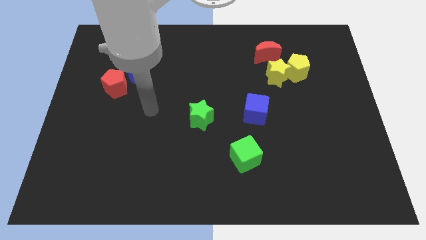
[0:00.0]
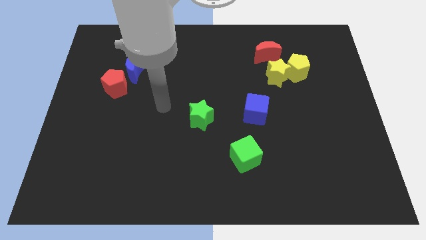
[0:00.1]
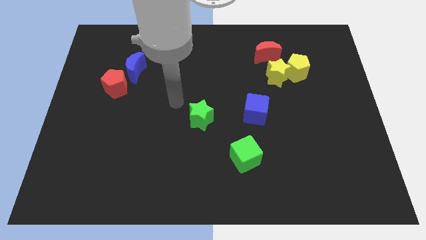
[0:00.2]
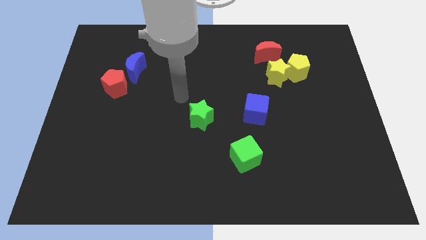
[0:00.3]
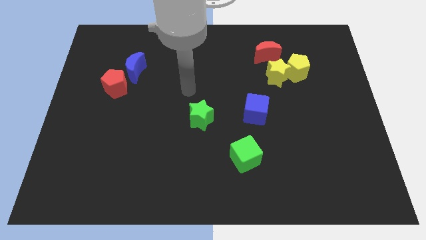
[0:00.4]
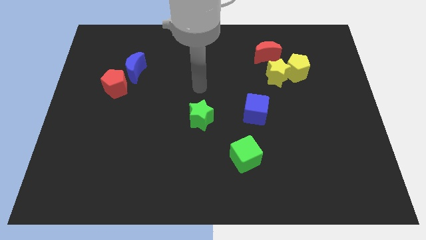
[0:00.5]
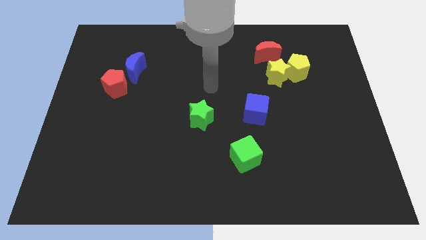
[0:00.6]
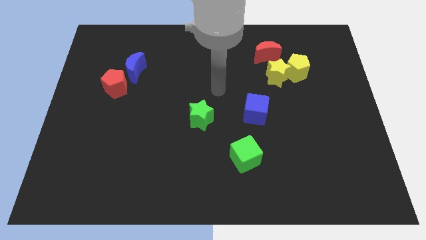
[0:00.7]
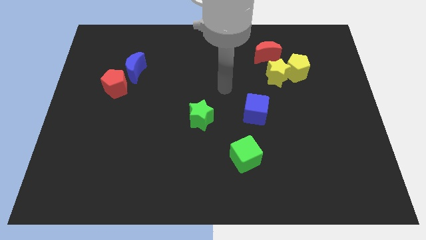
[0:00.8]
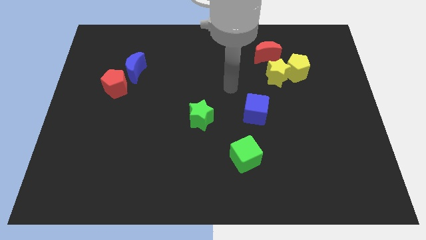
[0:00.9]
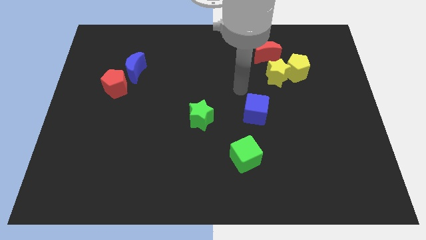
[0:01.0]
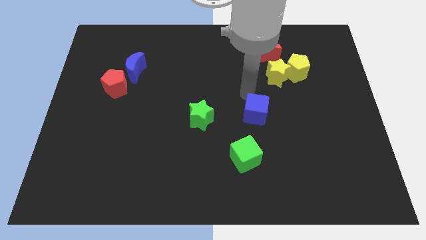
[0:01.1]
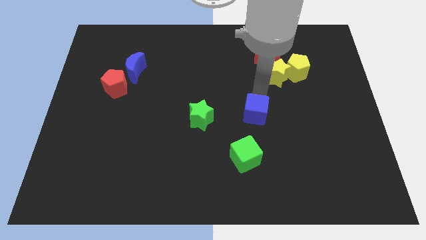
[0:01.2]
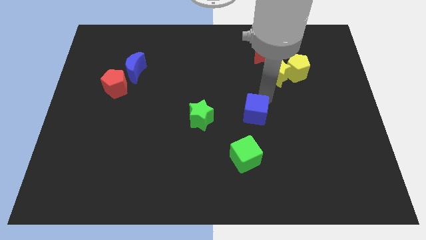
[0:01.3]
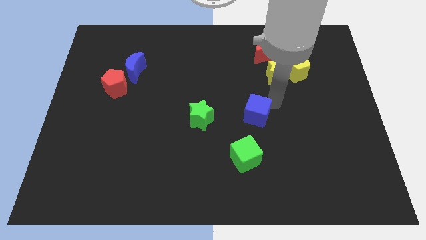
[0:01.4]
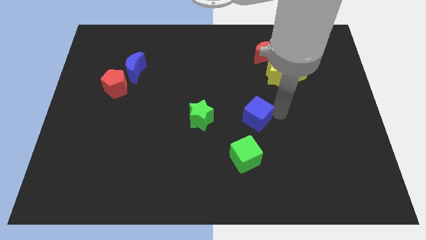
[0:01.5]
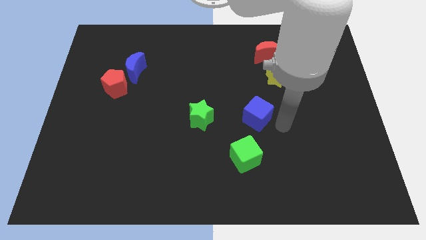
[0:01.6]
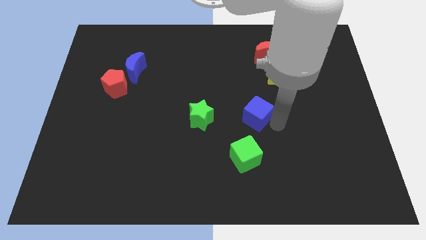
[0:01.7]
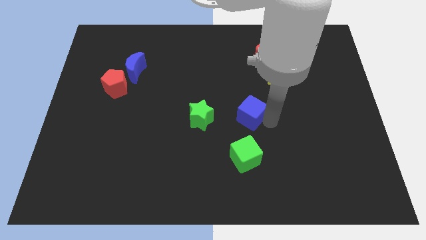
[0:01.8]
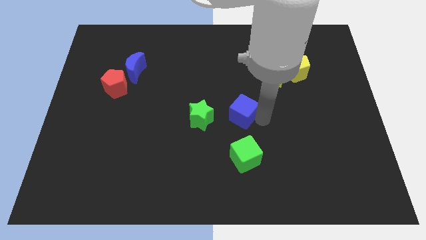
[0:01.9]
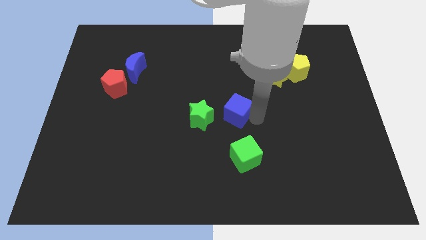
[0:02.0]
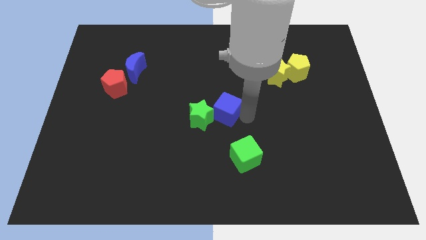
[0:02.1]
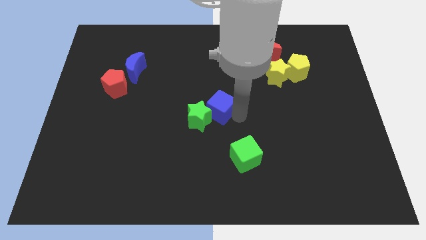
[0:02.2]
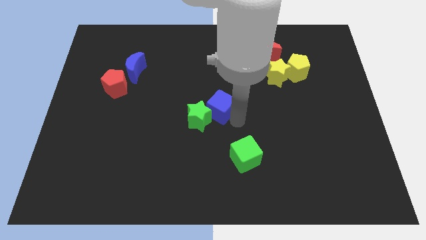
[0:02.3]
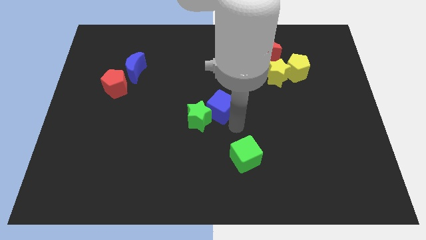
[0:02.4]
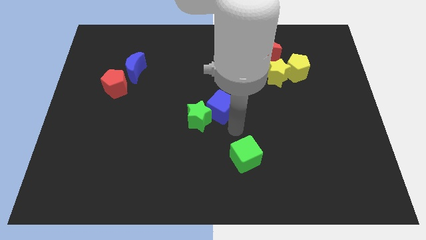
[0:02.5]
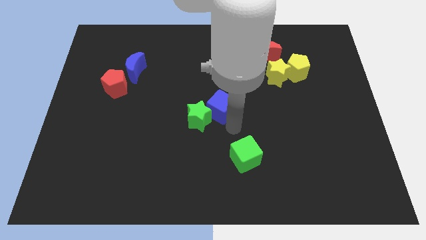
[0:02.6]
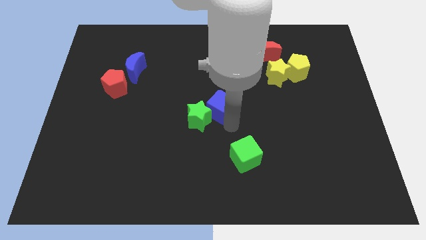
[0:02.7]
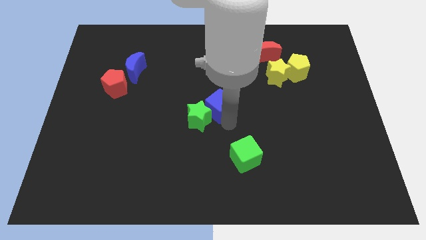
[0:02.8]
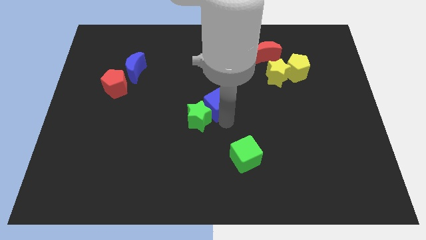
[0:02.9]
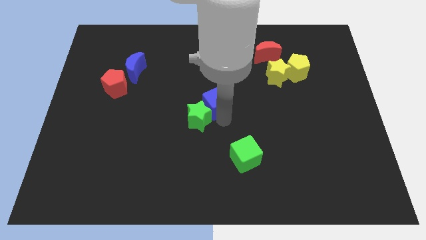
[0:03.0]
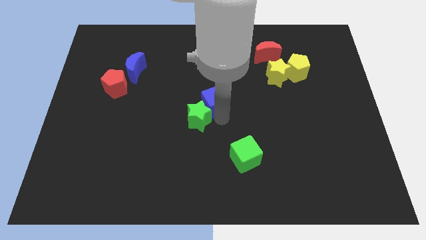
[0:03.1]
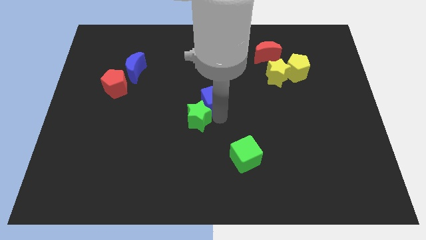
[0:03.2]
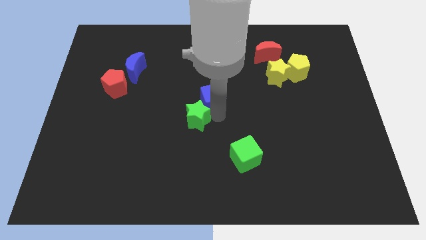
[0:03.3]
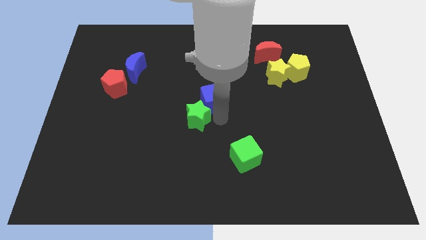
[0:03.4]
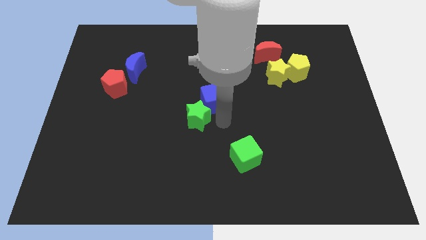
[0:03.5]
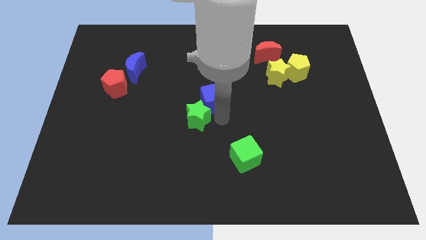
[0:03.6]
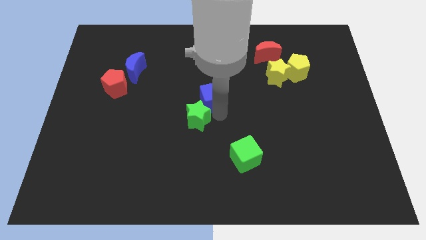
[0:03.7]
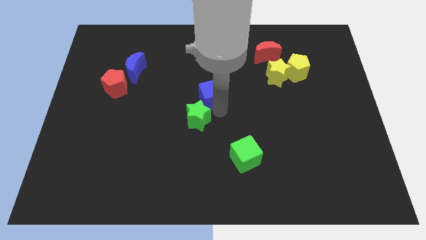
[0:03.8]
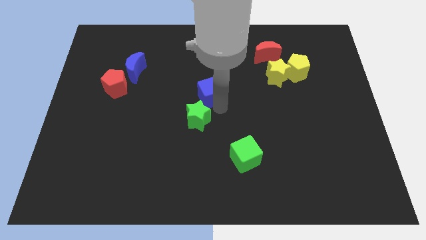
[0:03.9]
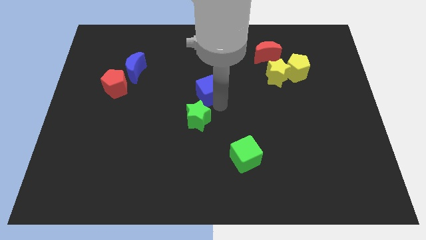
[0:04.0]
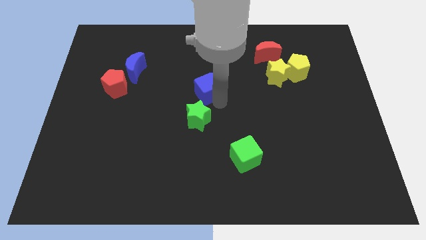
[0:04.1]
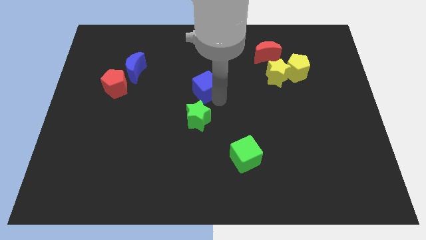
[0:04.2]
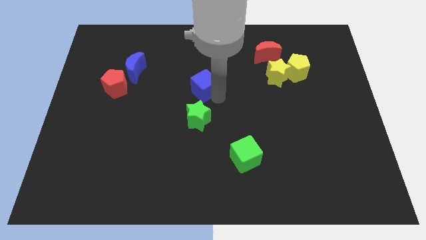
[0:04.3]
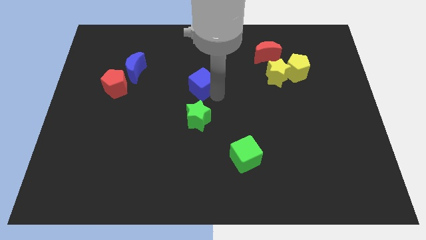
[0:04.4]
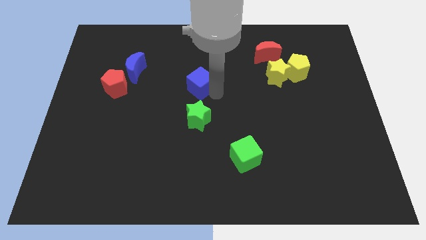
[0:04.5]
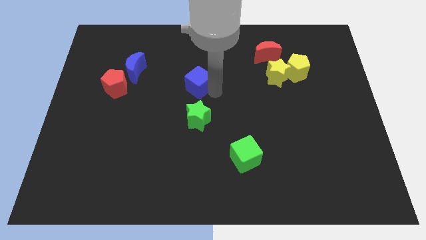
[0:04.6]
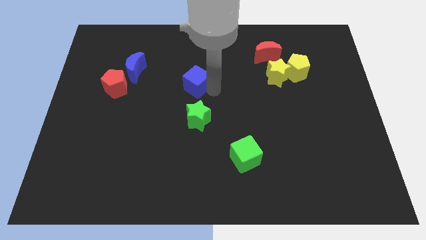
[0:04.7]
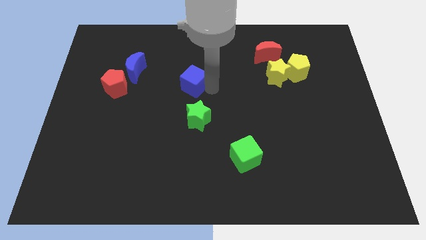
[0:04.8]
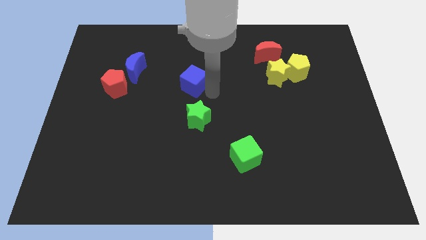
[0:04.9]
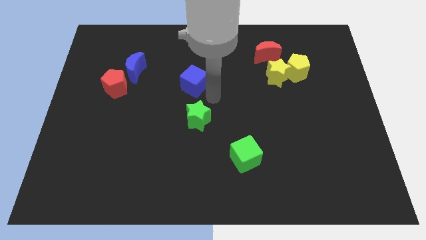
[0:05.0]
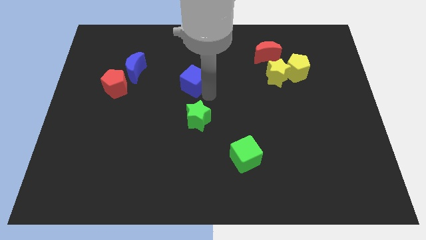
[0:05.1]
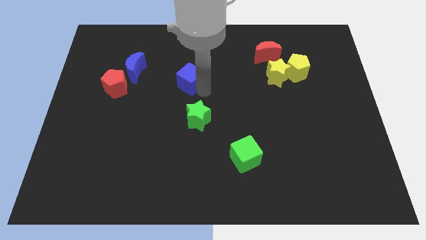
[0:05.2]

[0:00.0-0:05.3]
push the blue cube to the right side of the blue moon

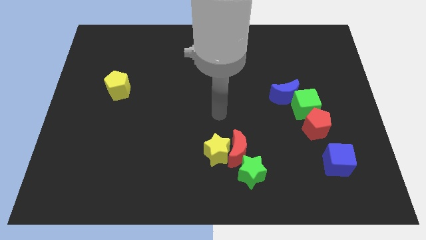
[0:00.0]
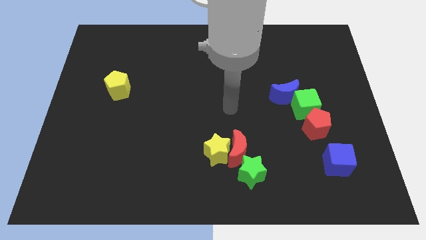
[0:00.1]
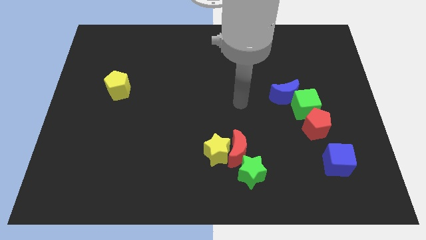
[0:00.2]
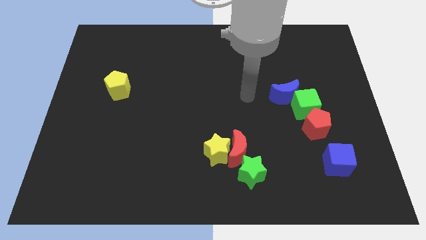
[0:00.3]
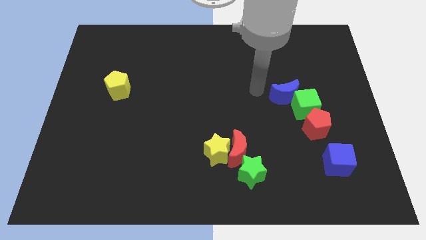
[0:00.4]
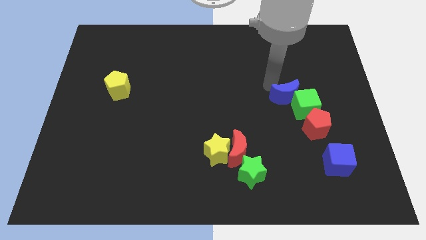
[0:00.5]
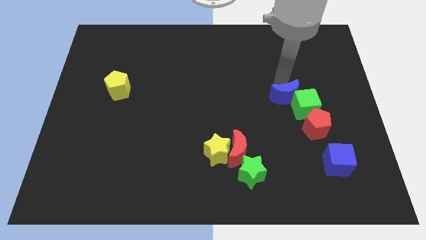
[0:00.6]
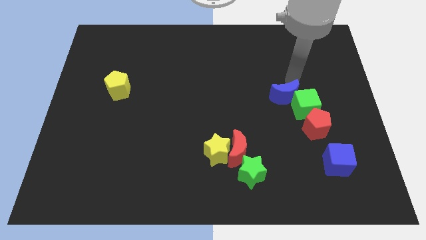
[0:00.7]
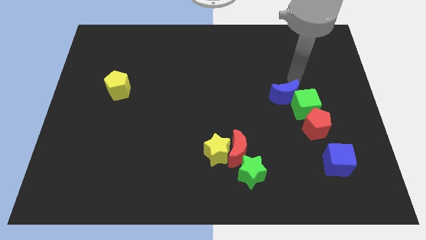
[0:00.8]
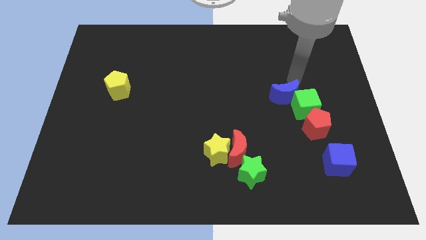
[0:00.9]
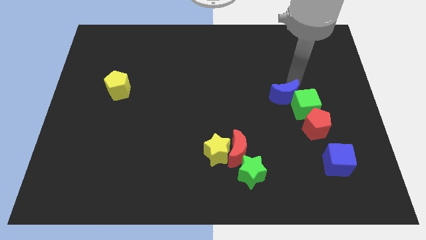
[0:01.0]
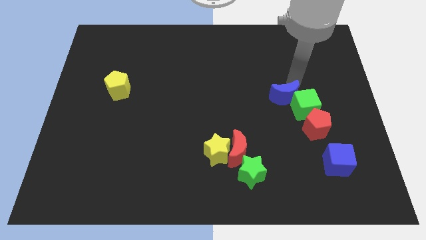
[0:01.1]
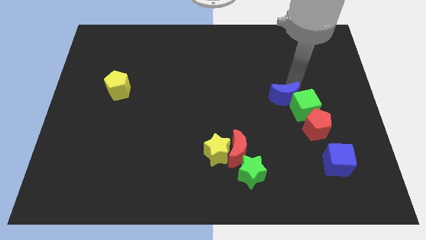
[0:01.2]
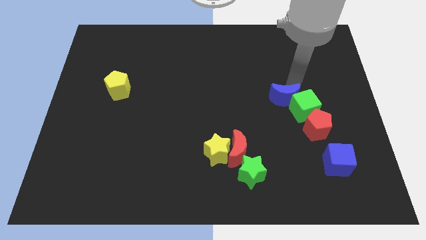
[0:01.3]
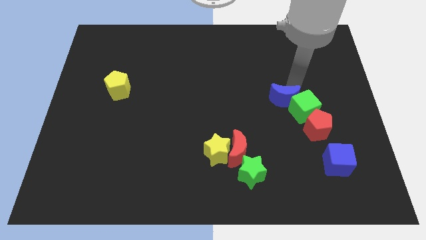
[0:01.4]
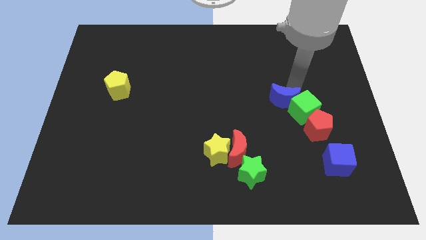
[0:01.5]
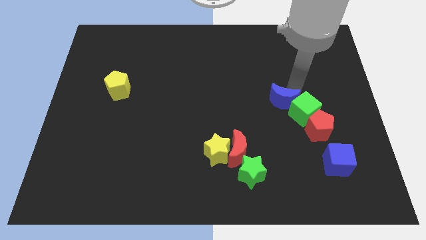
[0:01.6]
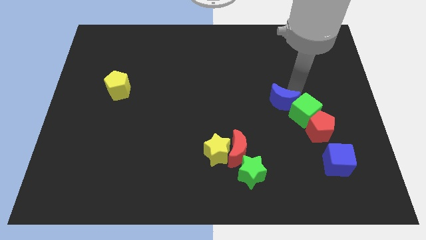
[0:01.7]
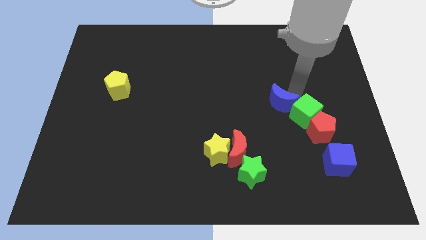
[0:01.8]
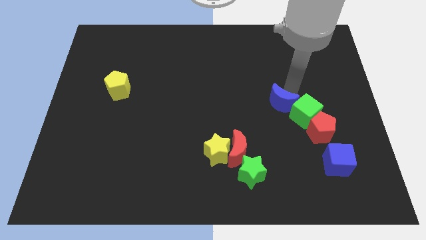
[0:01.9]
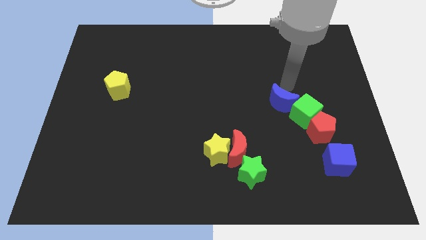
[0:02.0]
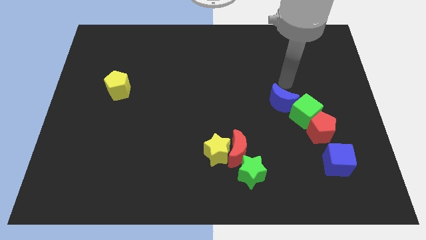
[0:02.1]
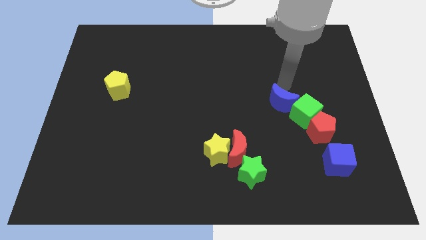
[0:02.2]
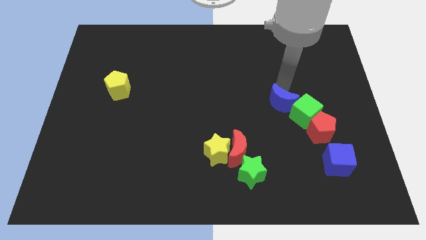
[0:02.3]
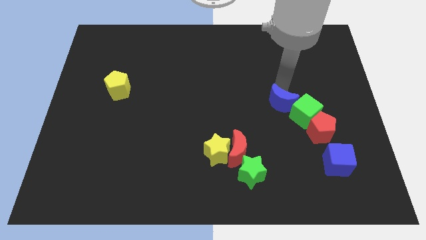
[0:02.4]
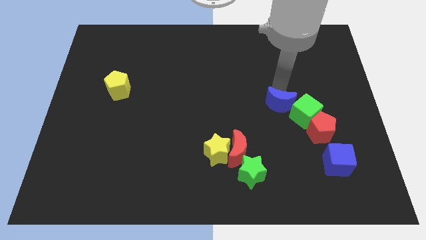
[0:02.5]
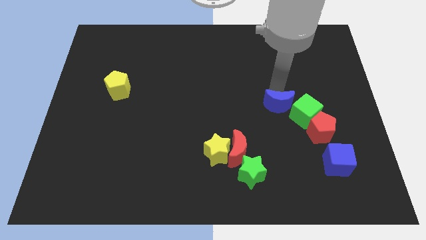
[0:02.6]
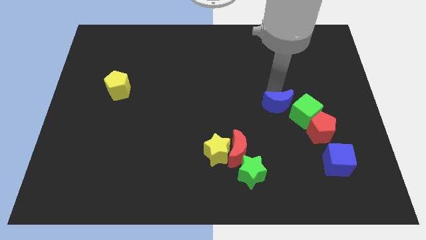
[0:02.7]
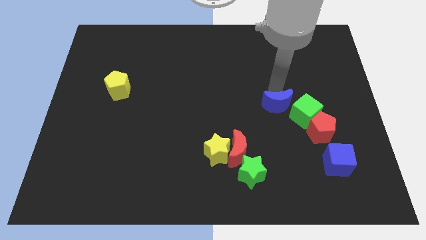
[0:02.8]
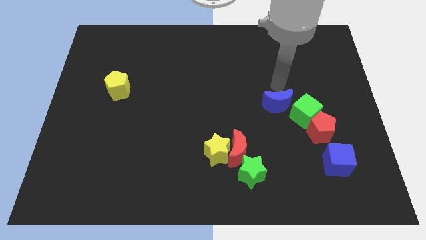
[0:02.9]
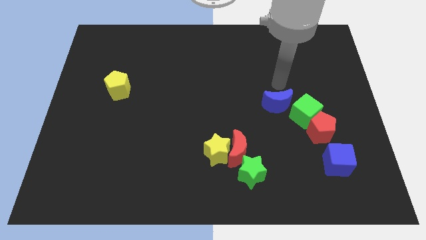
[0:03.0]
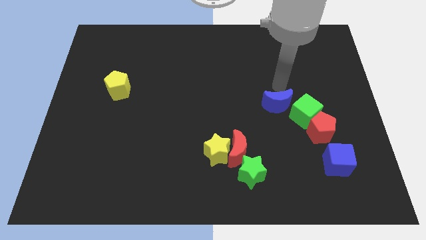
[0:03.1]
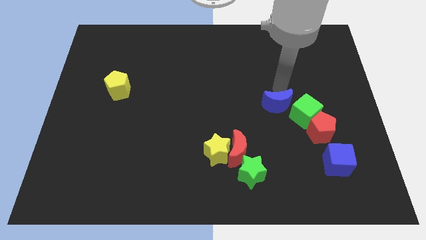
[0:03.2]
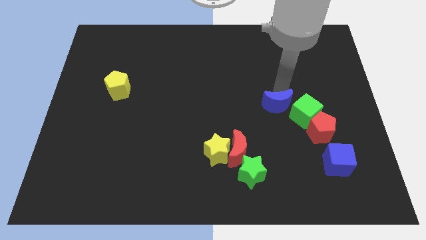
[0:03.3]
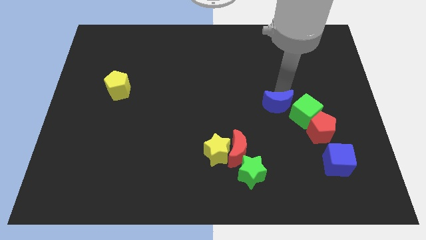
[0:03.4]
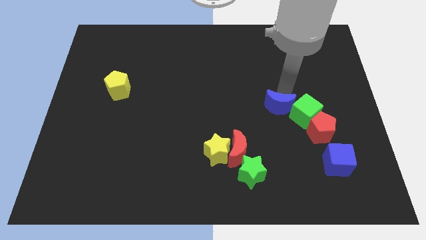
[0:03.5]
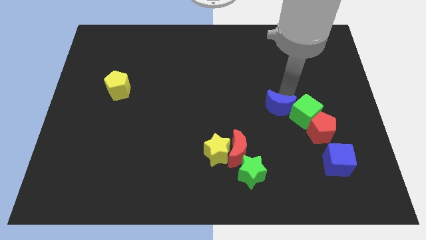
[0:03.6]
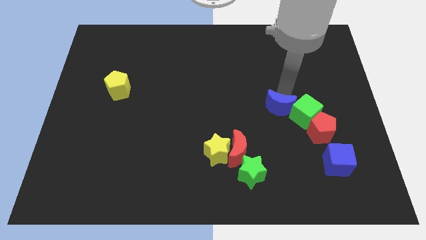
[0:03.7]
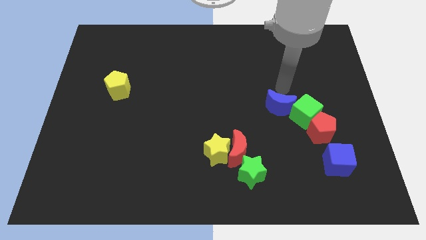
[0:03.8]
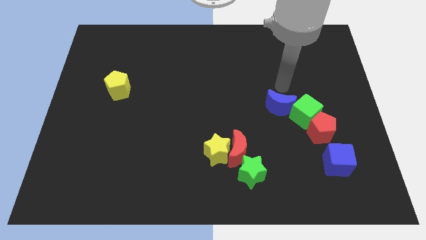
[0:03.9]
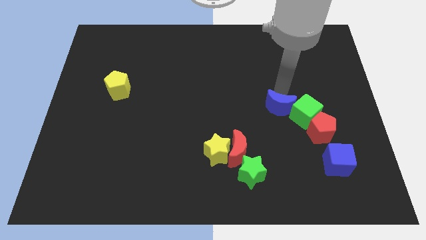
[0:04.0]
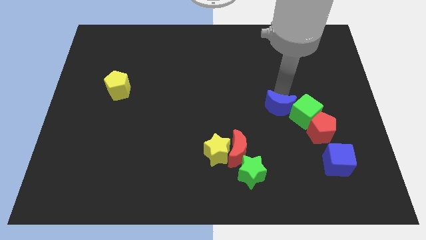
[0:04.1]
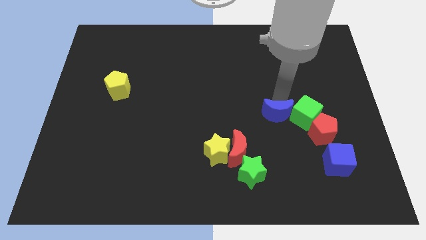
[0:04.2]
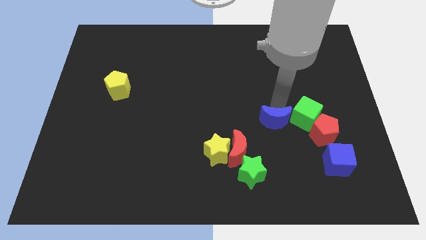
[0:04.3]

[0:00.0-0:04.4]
slide the blue moon just left of the red pentagon
